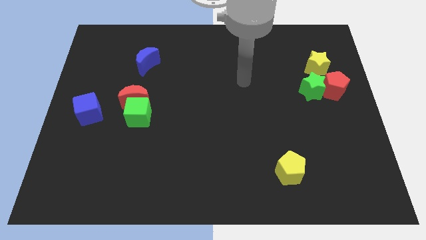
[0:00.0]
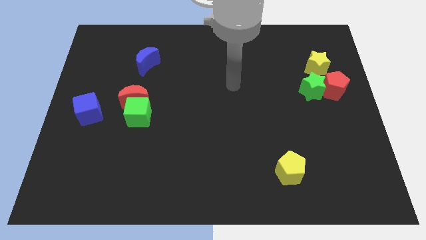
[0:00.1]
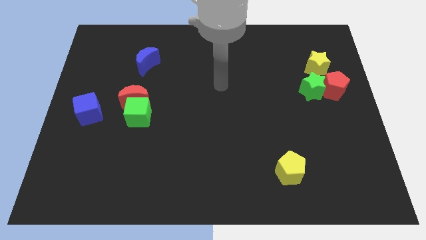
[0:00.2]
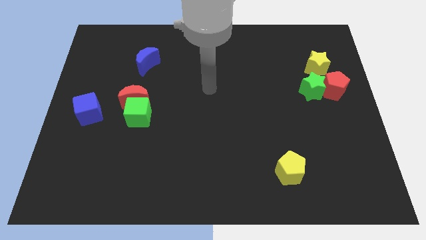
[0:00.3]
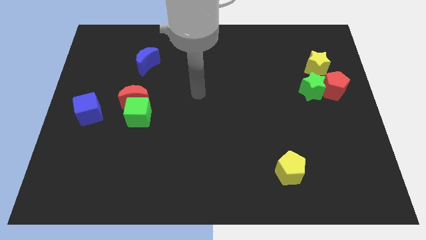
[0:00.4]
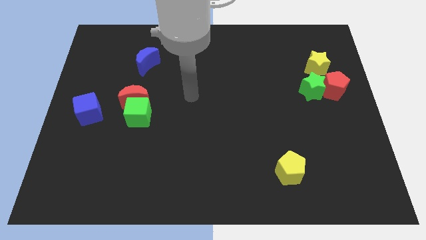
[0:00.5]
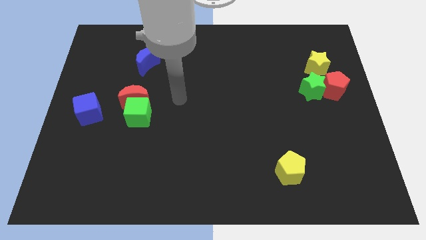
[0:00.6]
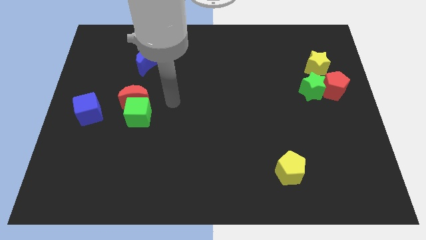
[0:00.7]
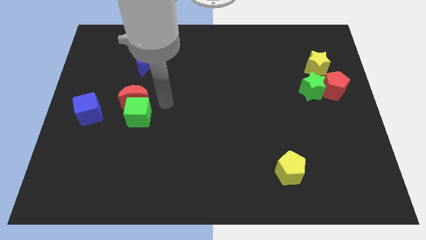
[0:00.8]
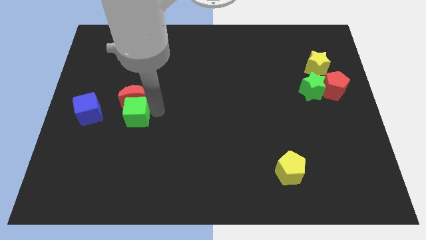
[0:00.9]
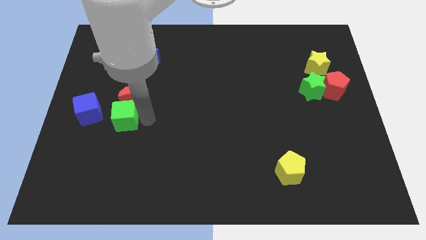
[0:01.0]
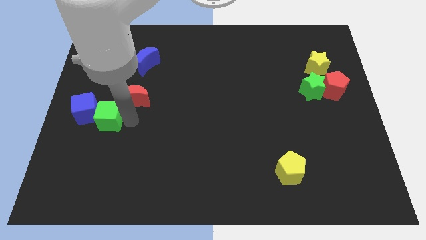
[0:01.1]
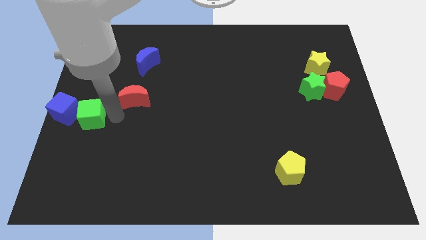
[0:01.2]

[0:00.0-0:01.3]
separate the red moon from the green cube

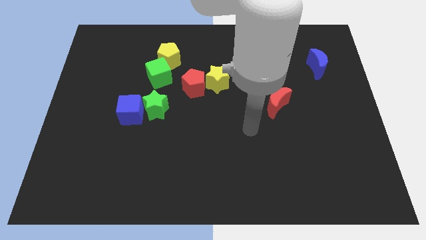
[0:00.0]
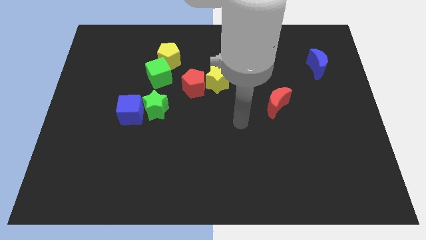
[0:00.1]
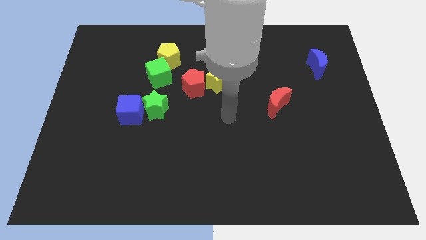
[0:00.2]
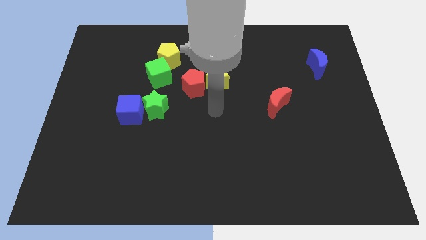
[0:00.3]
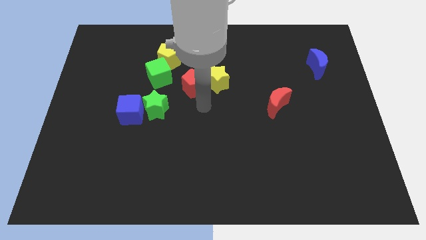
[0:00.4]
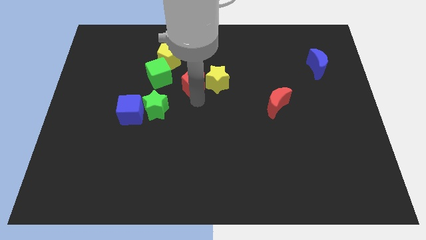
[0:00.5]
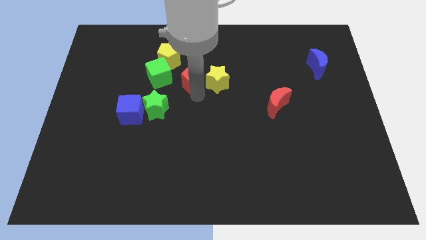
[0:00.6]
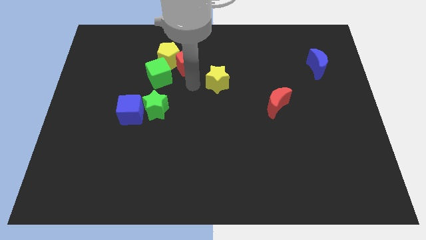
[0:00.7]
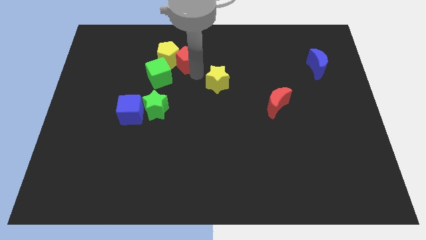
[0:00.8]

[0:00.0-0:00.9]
separate the yellow star from the red pentagon

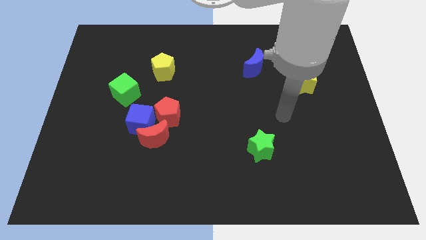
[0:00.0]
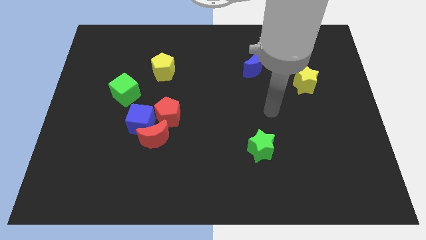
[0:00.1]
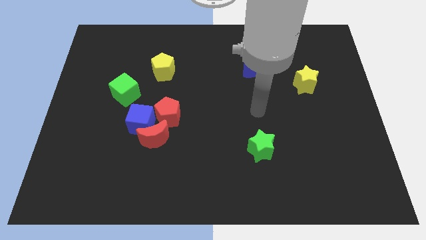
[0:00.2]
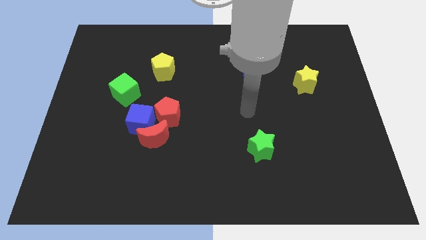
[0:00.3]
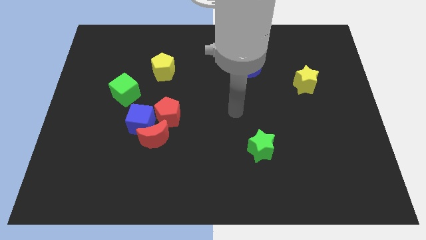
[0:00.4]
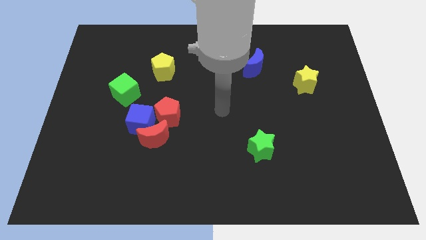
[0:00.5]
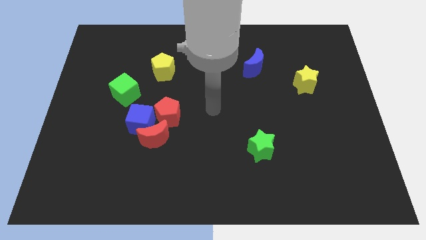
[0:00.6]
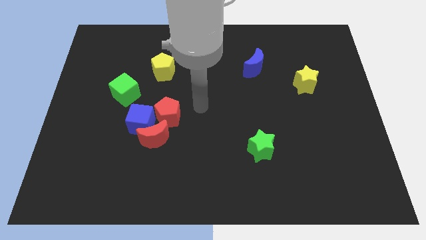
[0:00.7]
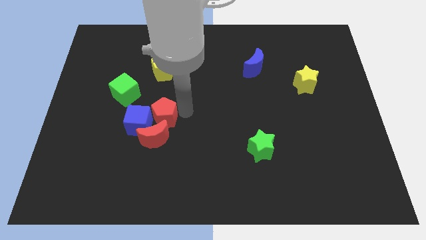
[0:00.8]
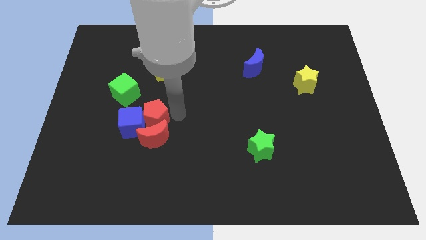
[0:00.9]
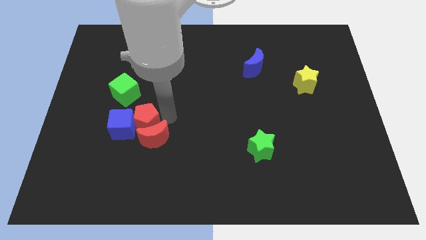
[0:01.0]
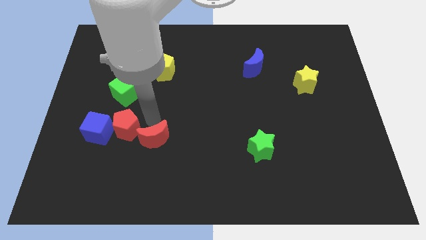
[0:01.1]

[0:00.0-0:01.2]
move the red moon away from the blue cube and red pentagon

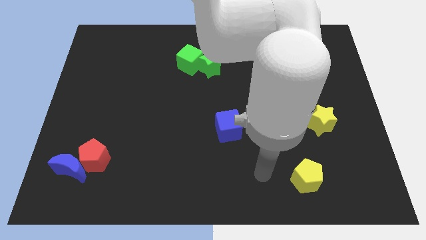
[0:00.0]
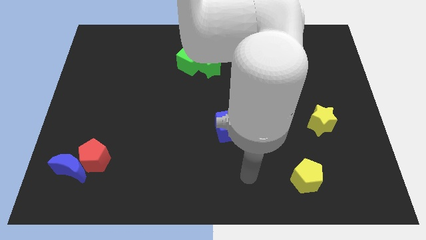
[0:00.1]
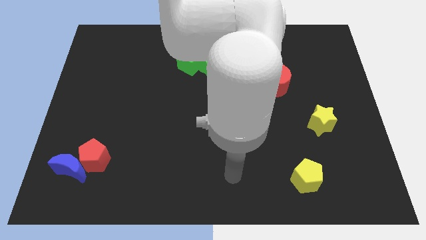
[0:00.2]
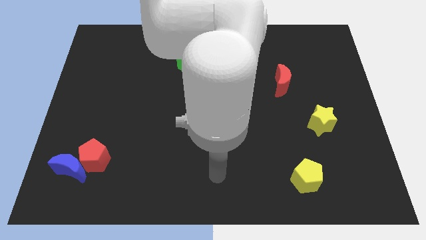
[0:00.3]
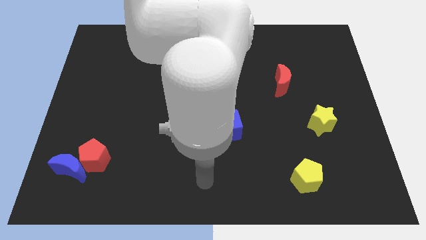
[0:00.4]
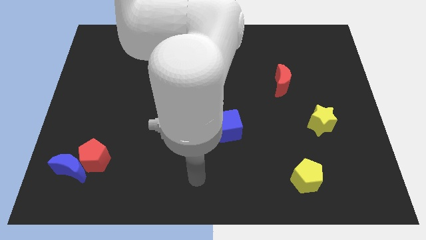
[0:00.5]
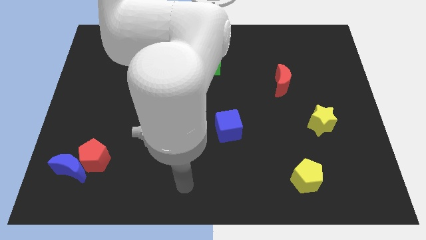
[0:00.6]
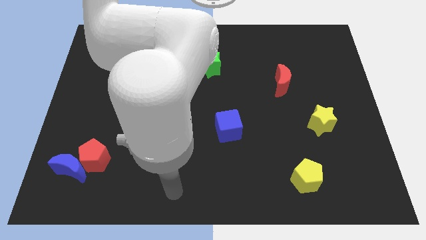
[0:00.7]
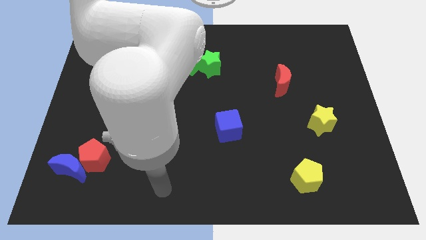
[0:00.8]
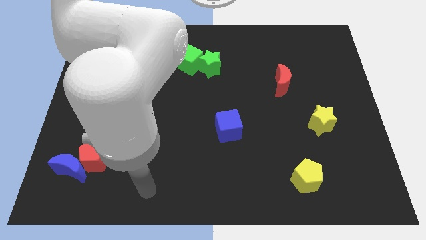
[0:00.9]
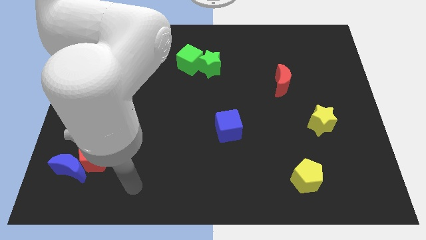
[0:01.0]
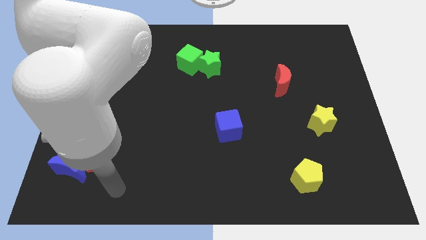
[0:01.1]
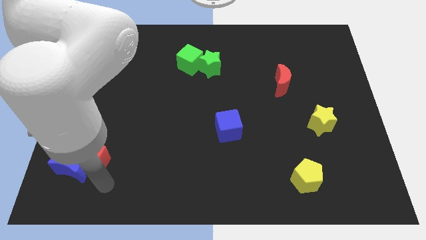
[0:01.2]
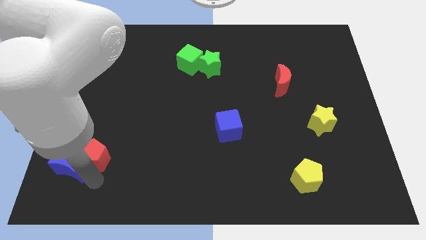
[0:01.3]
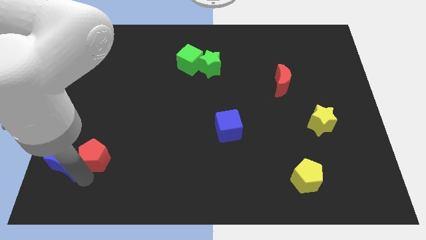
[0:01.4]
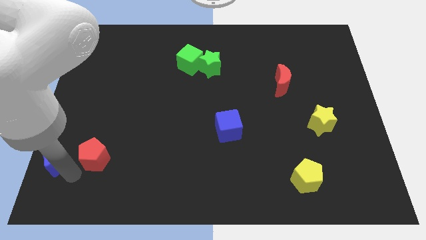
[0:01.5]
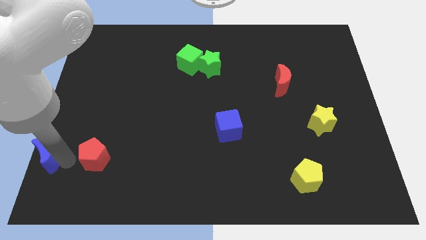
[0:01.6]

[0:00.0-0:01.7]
move the red pentagon away from the blue moon

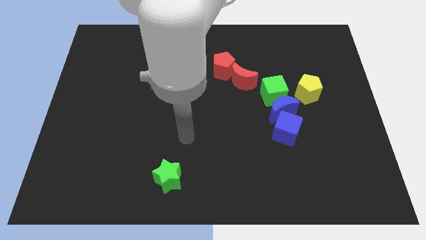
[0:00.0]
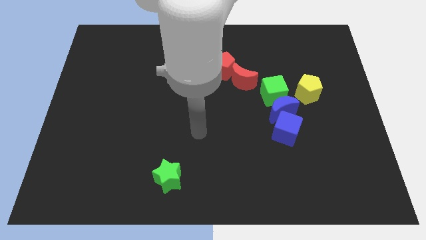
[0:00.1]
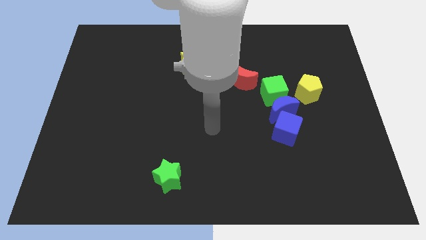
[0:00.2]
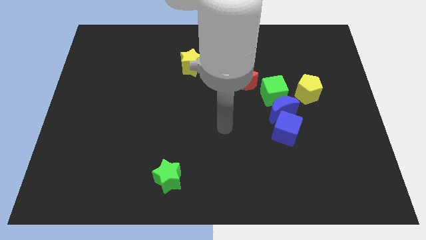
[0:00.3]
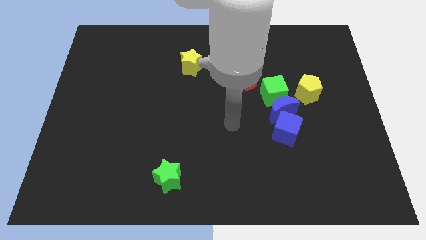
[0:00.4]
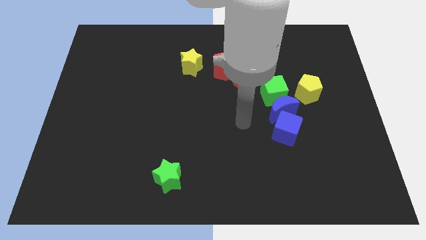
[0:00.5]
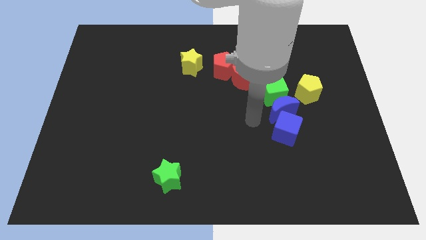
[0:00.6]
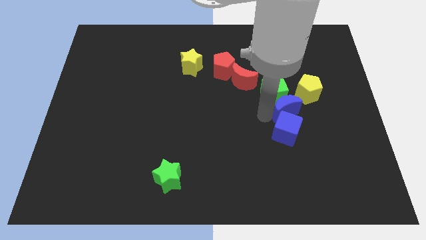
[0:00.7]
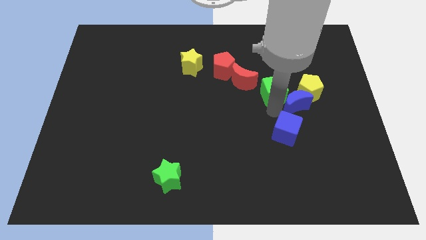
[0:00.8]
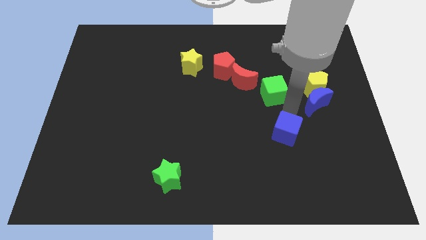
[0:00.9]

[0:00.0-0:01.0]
pull the blue cube apart from the blue moon

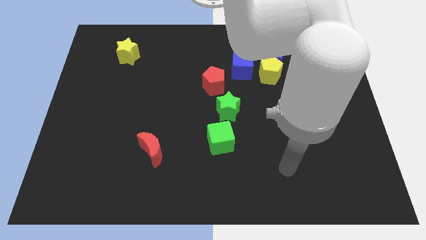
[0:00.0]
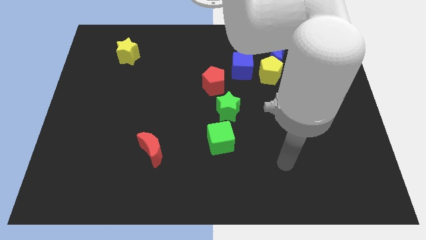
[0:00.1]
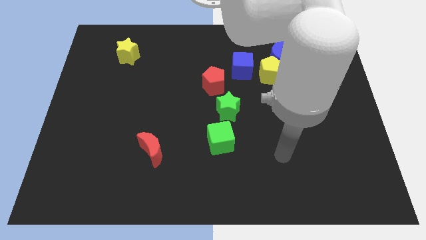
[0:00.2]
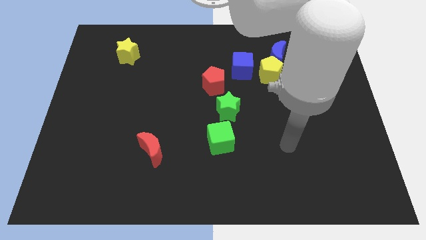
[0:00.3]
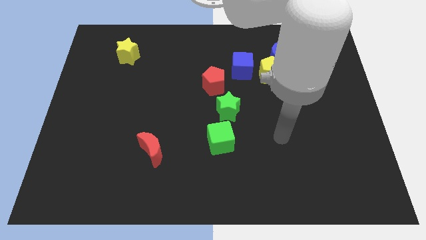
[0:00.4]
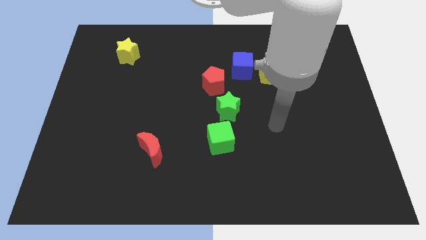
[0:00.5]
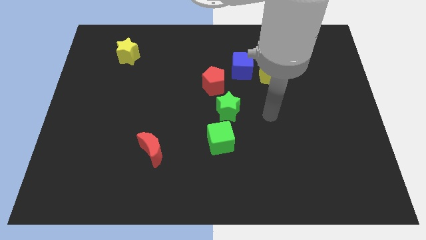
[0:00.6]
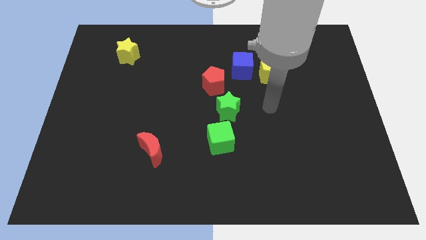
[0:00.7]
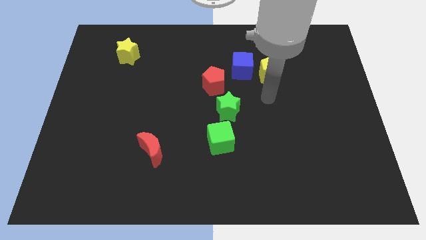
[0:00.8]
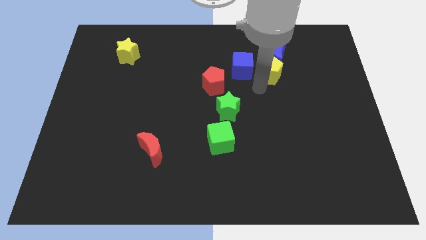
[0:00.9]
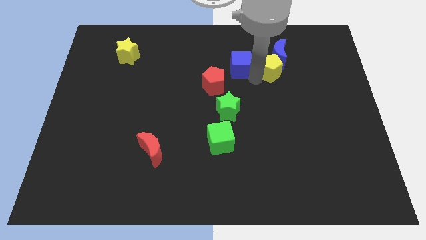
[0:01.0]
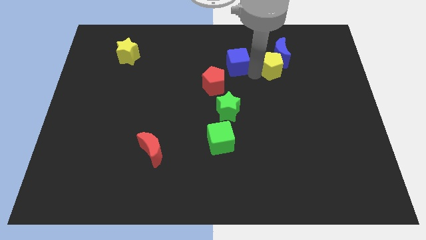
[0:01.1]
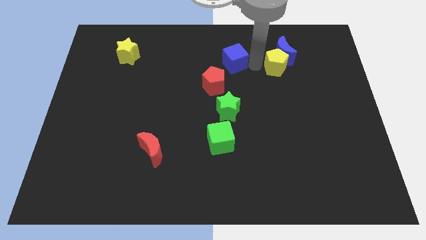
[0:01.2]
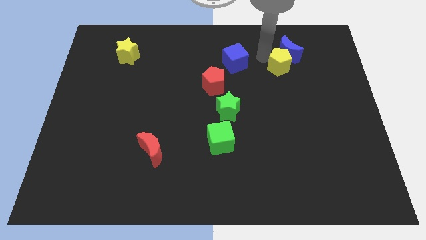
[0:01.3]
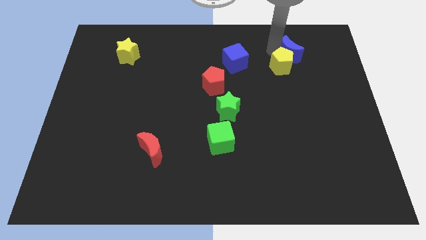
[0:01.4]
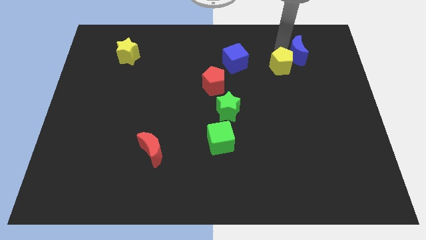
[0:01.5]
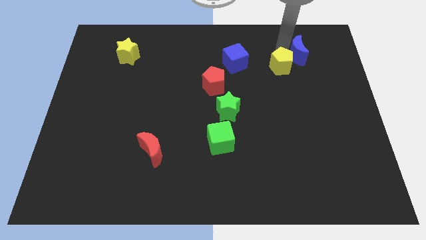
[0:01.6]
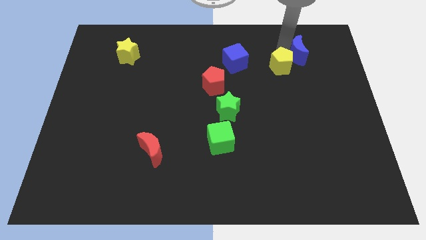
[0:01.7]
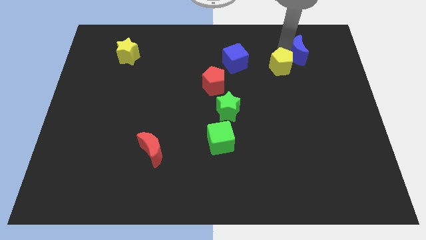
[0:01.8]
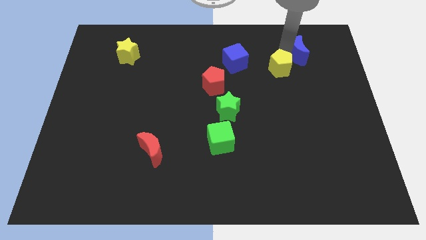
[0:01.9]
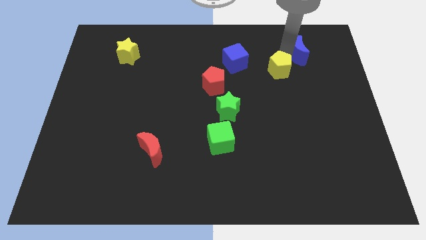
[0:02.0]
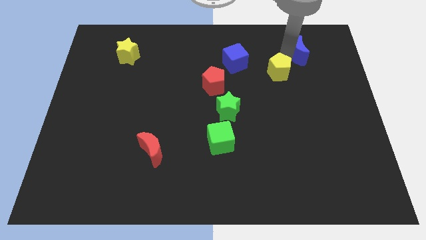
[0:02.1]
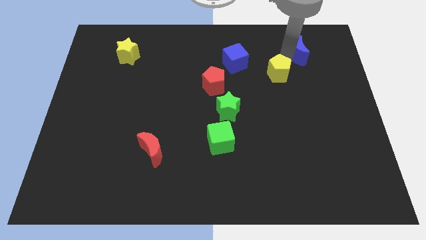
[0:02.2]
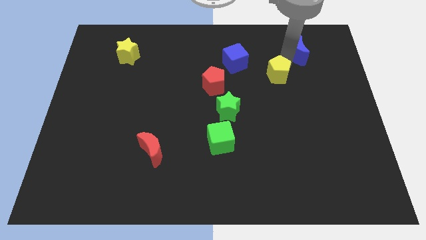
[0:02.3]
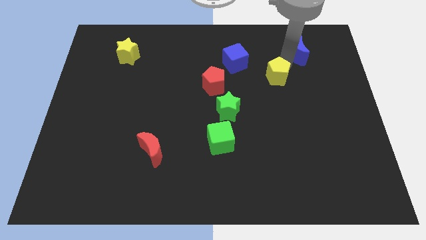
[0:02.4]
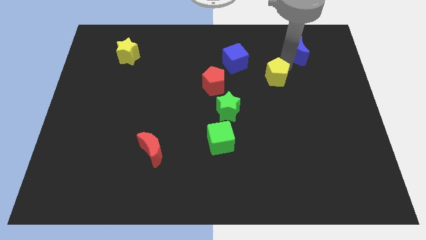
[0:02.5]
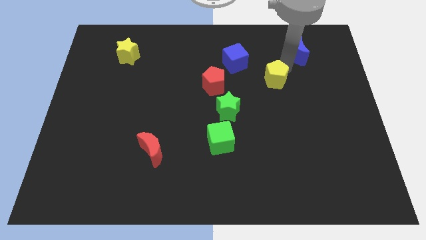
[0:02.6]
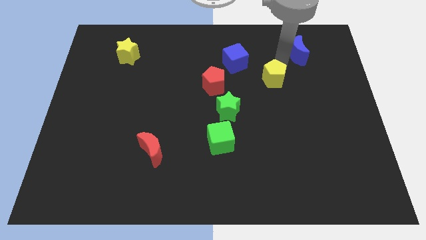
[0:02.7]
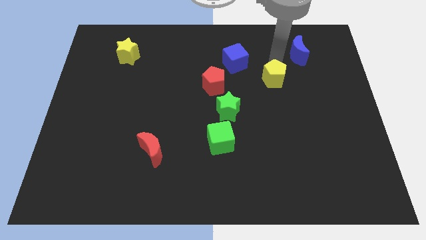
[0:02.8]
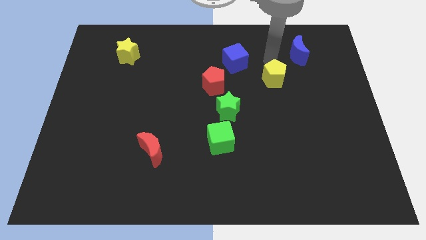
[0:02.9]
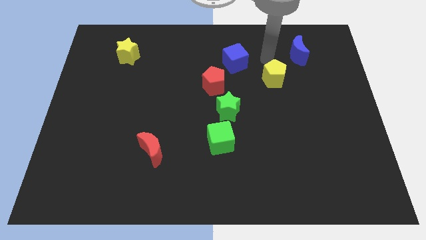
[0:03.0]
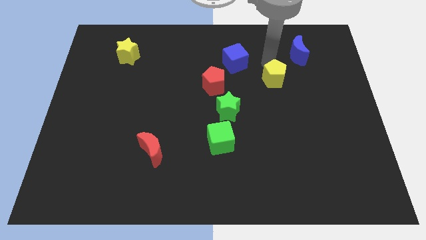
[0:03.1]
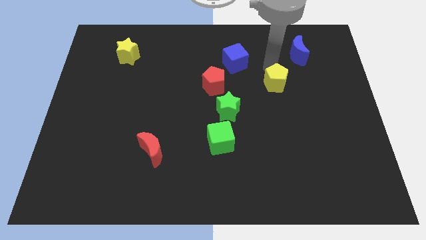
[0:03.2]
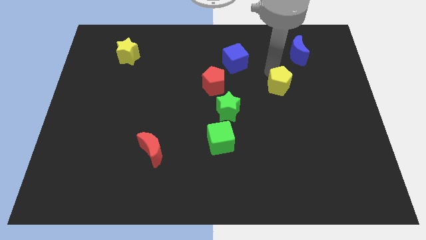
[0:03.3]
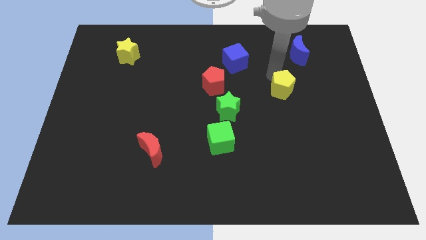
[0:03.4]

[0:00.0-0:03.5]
pull the yellow pentagon apart from the blue moon and blue cube
